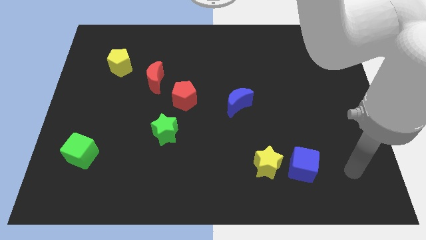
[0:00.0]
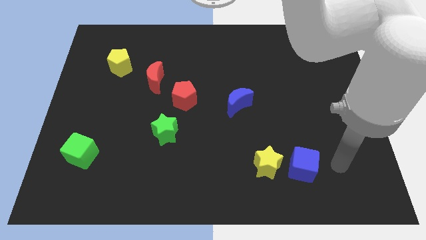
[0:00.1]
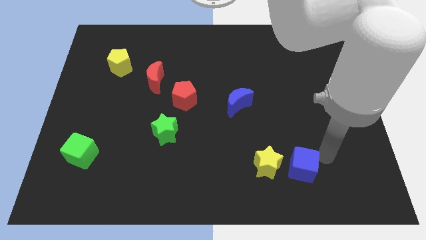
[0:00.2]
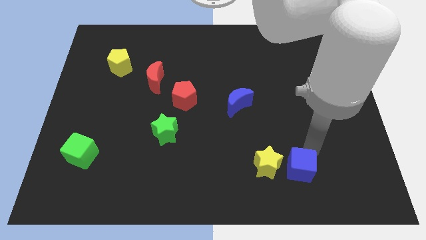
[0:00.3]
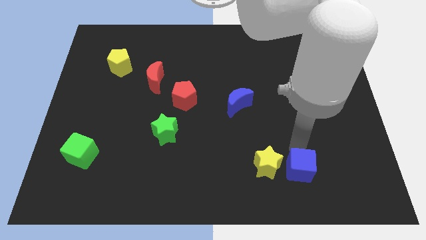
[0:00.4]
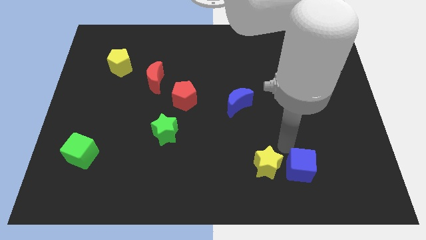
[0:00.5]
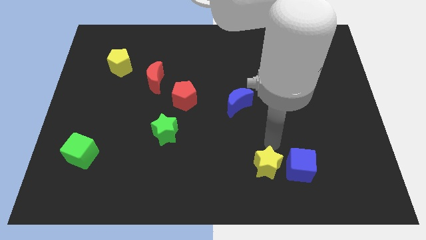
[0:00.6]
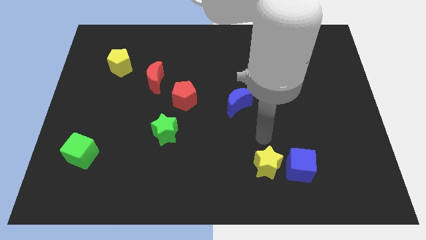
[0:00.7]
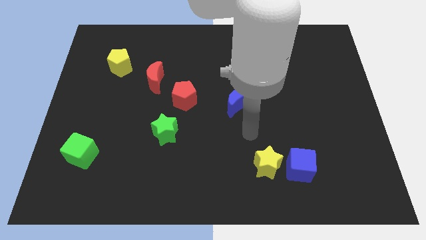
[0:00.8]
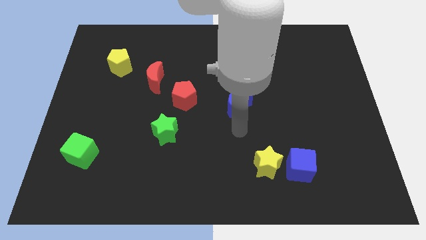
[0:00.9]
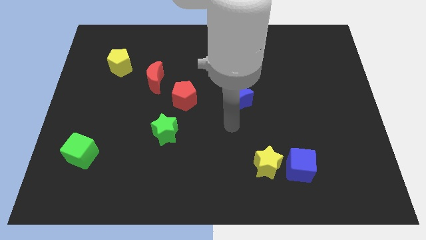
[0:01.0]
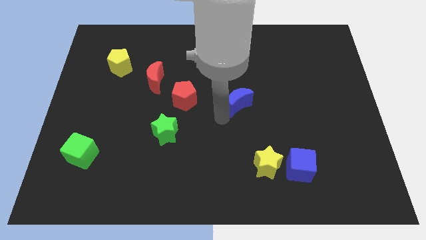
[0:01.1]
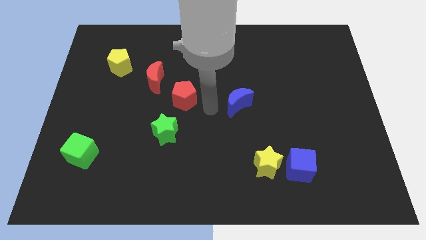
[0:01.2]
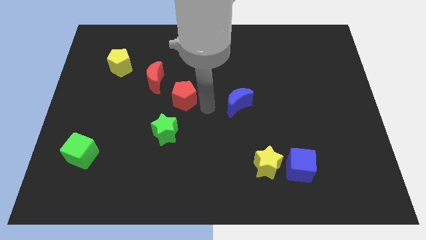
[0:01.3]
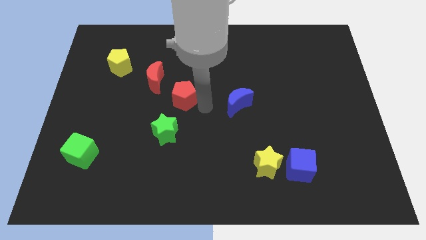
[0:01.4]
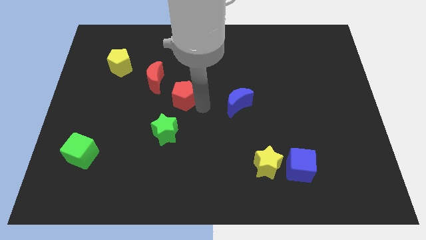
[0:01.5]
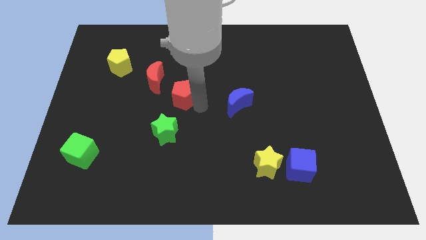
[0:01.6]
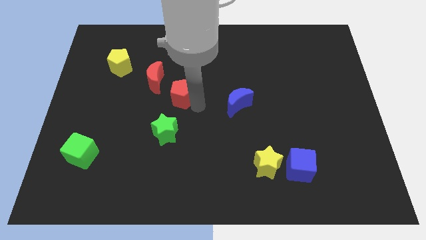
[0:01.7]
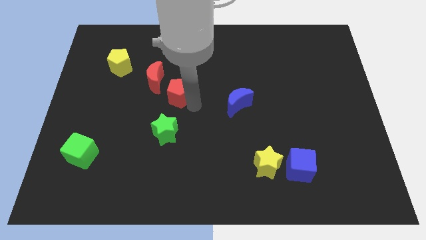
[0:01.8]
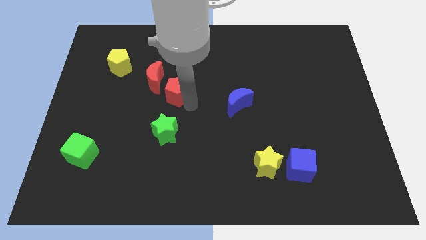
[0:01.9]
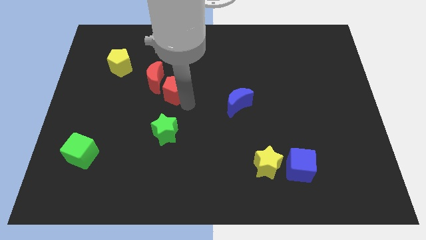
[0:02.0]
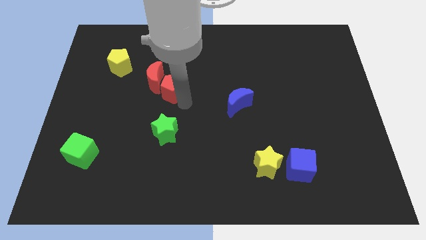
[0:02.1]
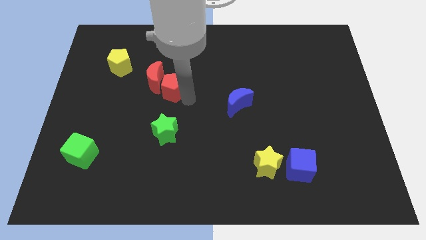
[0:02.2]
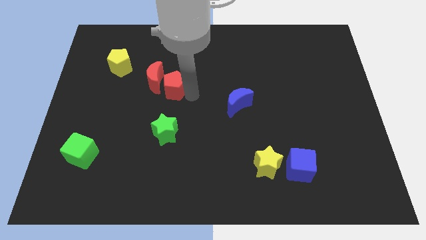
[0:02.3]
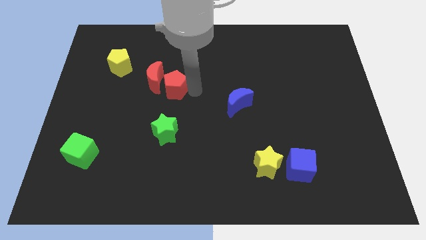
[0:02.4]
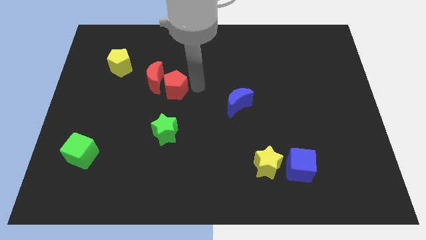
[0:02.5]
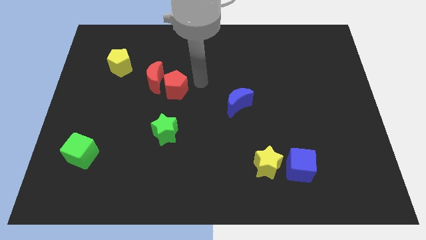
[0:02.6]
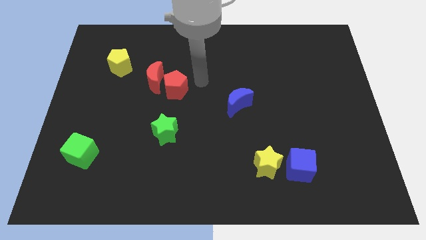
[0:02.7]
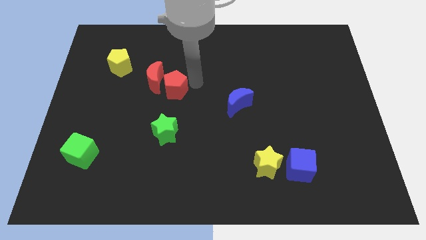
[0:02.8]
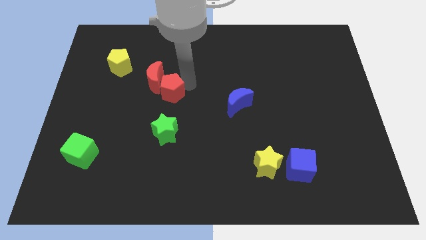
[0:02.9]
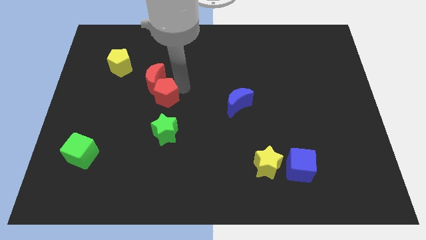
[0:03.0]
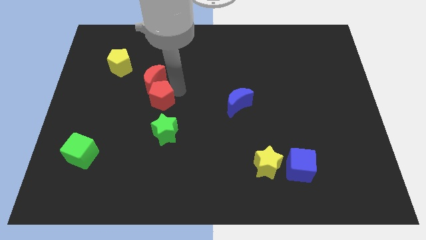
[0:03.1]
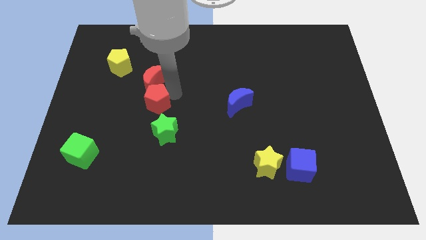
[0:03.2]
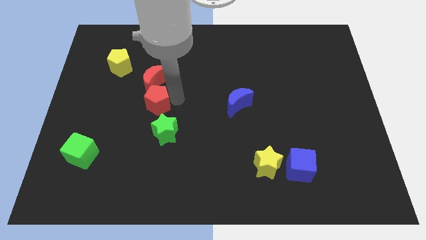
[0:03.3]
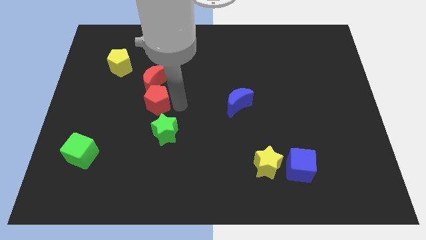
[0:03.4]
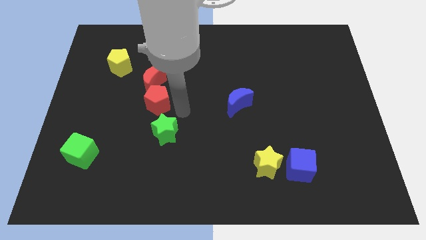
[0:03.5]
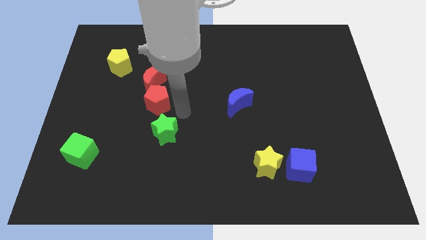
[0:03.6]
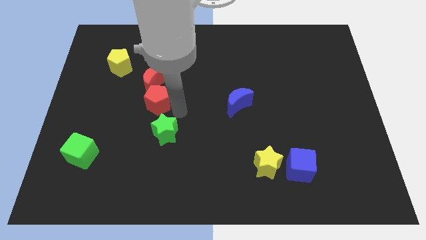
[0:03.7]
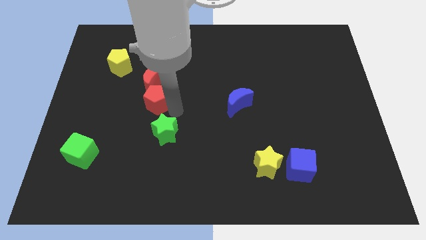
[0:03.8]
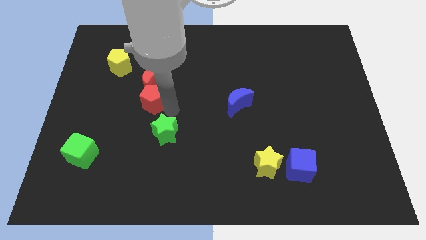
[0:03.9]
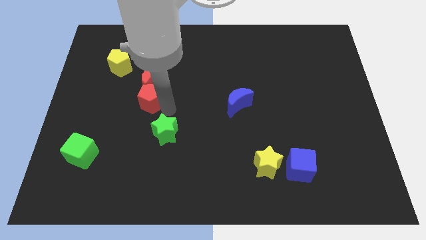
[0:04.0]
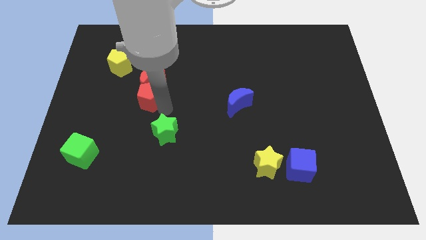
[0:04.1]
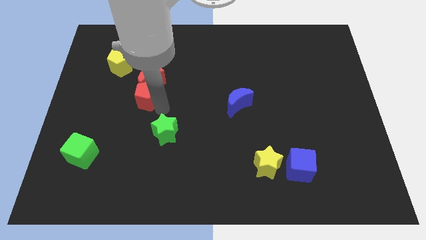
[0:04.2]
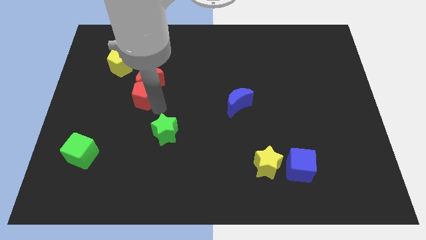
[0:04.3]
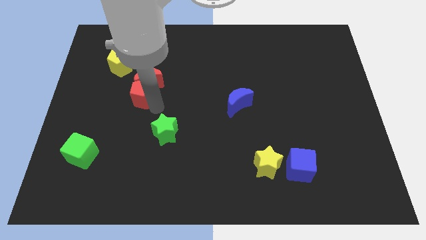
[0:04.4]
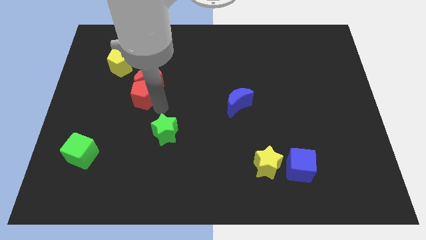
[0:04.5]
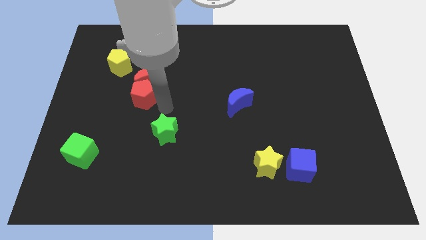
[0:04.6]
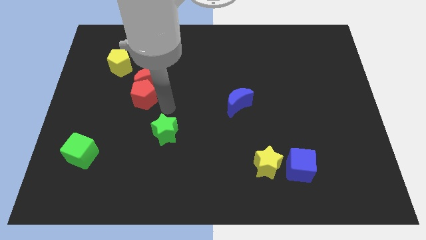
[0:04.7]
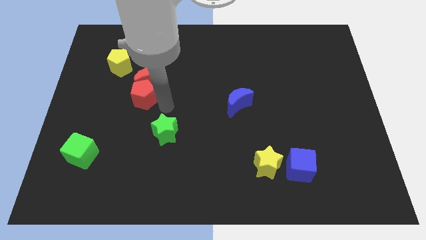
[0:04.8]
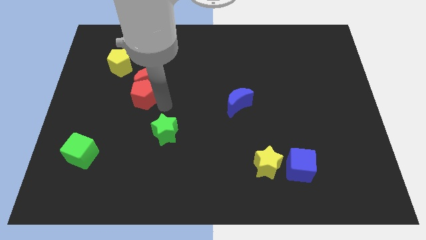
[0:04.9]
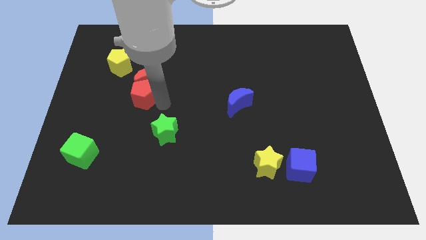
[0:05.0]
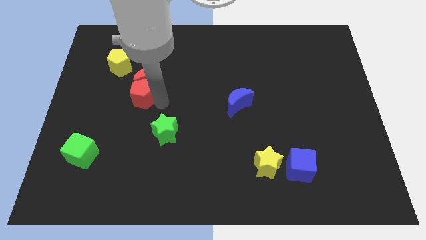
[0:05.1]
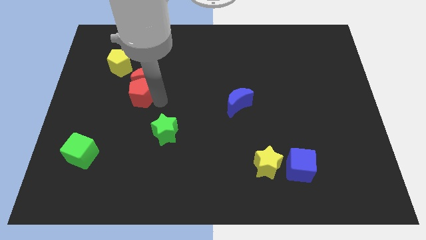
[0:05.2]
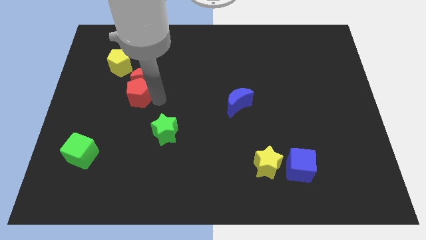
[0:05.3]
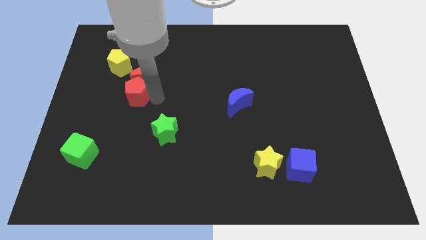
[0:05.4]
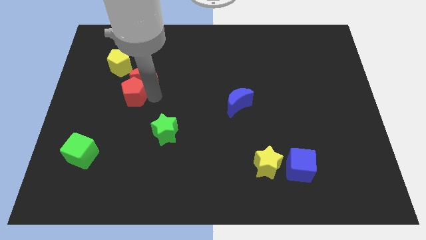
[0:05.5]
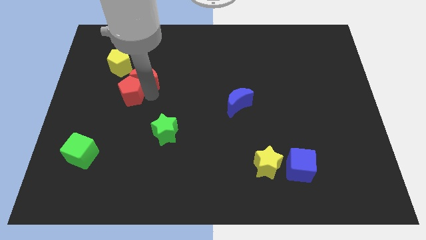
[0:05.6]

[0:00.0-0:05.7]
move the red pentagon just left of the red moon

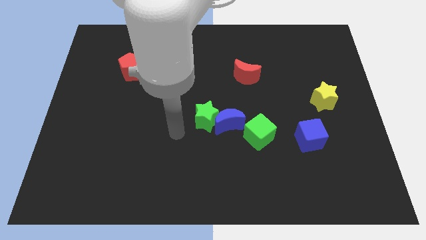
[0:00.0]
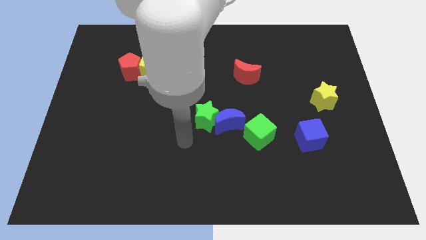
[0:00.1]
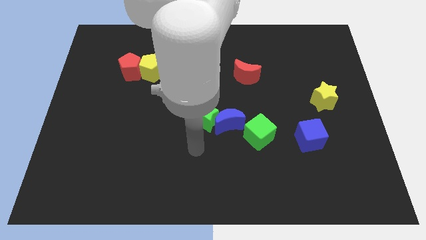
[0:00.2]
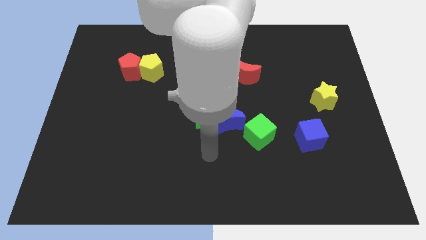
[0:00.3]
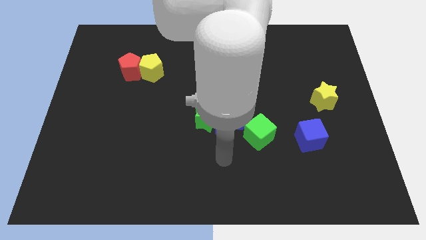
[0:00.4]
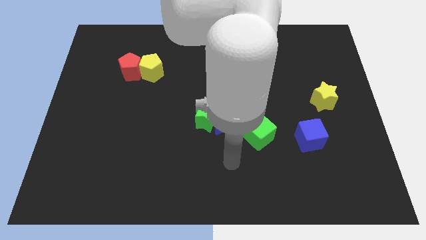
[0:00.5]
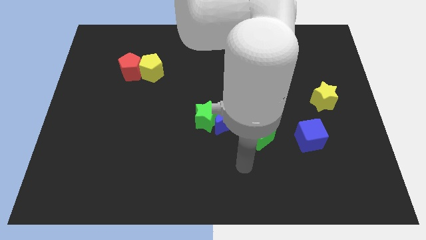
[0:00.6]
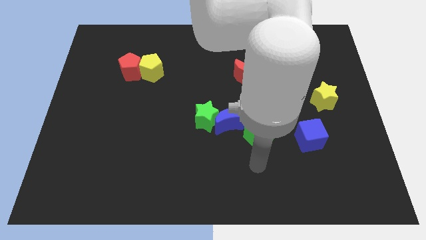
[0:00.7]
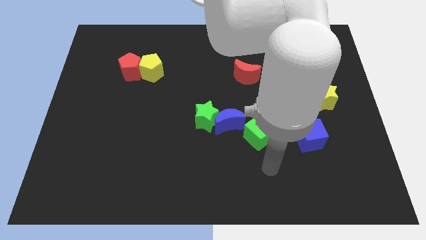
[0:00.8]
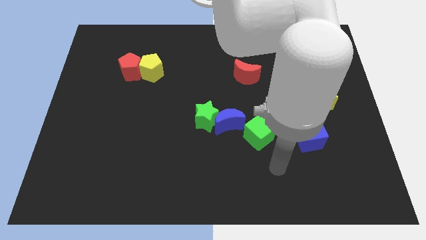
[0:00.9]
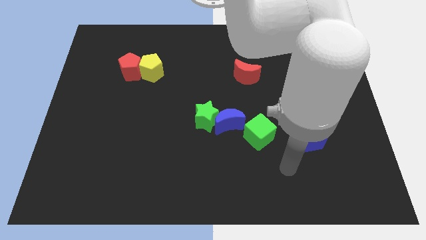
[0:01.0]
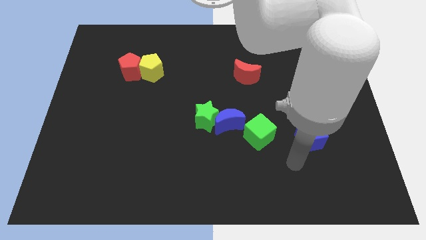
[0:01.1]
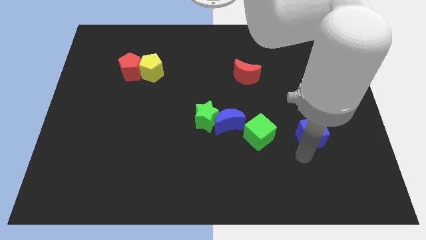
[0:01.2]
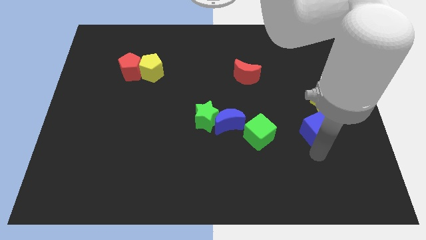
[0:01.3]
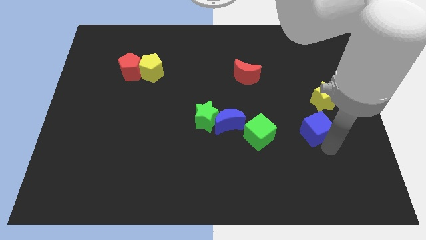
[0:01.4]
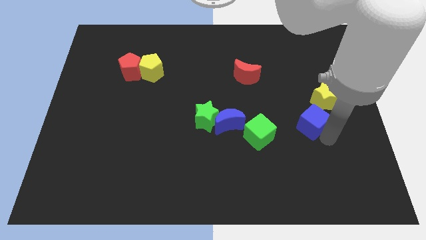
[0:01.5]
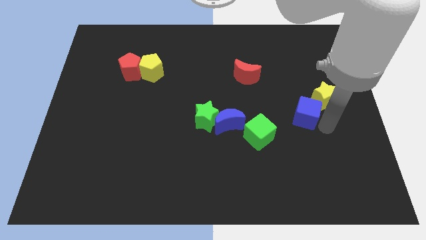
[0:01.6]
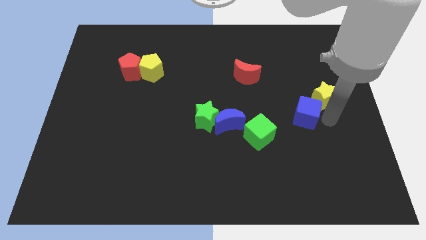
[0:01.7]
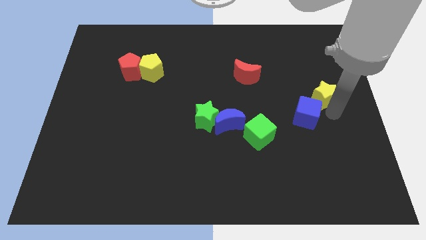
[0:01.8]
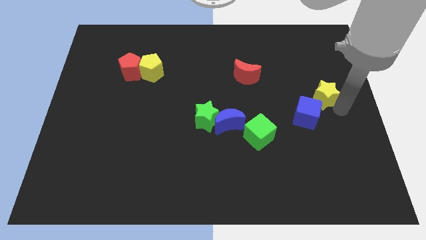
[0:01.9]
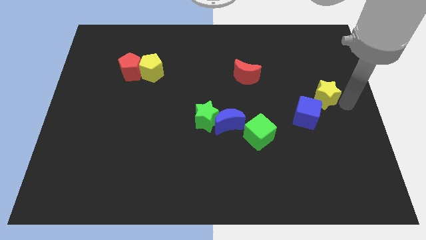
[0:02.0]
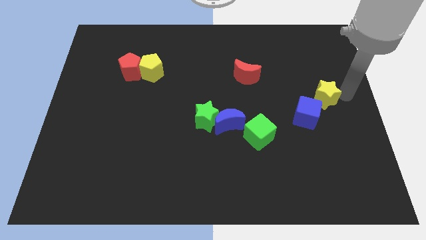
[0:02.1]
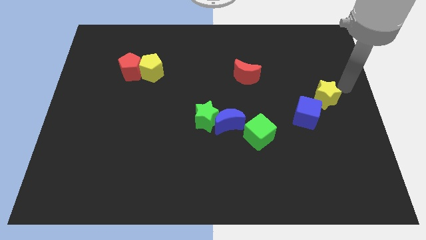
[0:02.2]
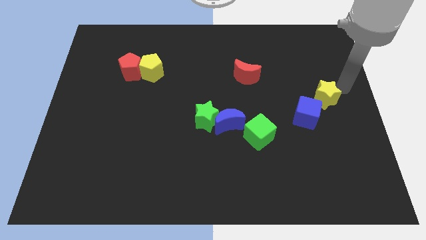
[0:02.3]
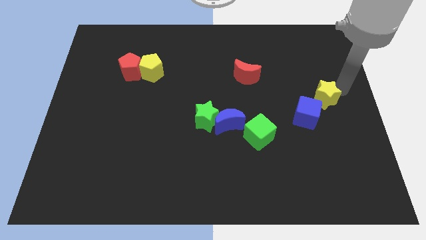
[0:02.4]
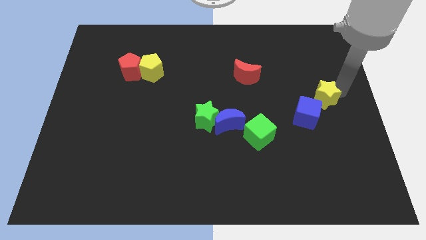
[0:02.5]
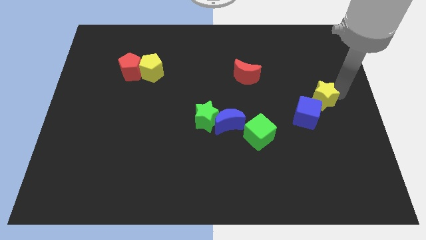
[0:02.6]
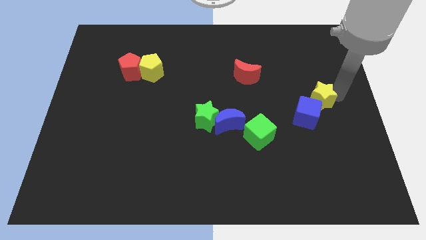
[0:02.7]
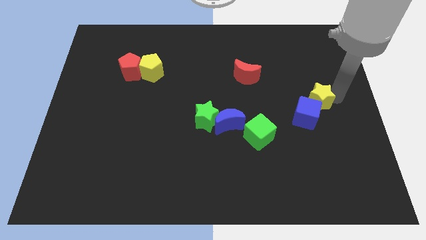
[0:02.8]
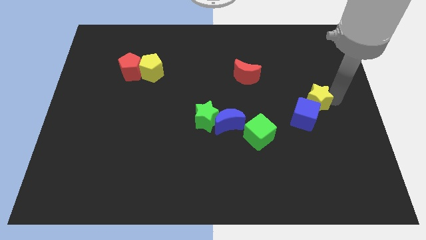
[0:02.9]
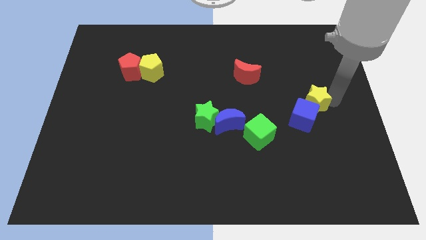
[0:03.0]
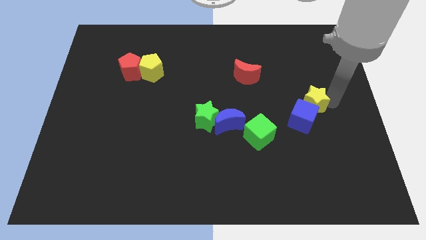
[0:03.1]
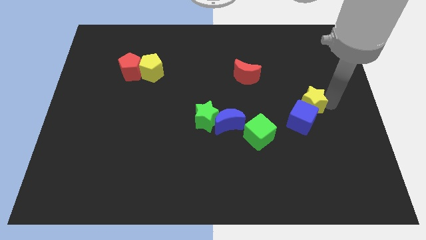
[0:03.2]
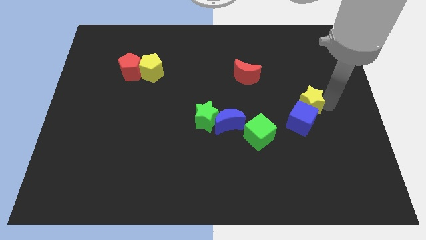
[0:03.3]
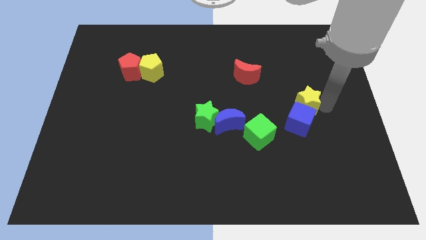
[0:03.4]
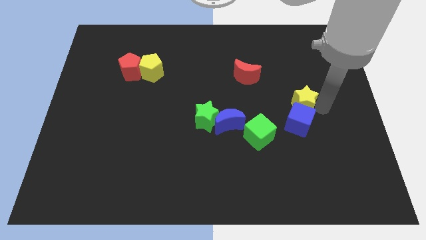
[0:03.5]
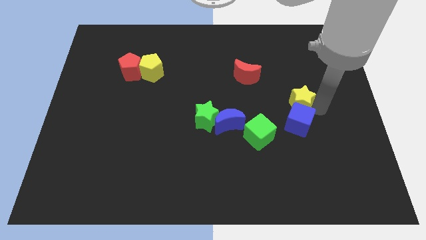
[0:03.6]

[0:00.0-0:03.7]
push the yellow star to the top left of the blue cube
